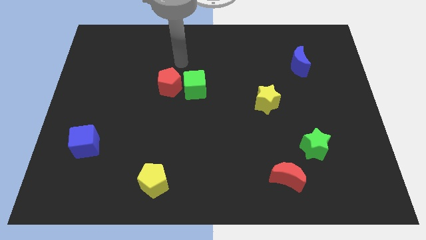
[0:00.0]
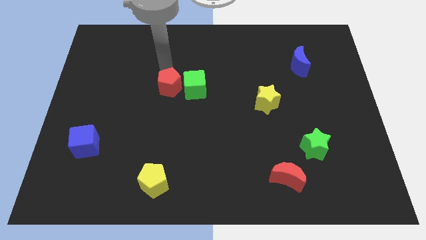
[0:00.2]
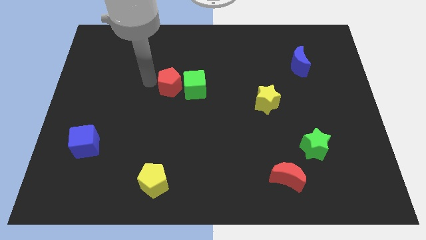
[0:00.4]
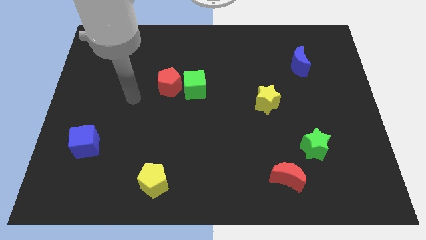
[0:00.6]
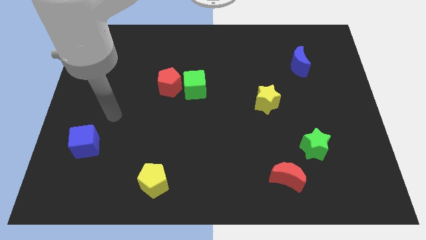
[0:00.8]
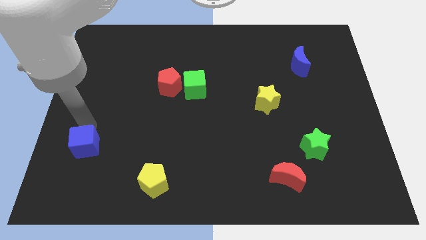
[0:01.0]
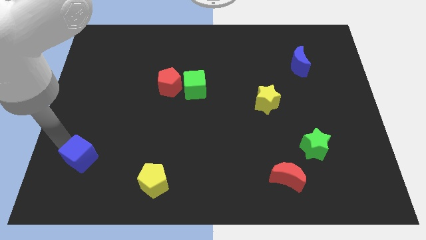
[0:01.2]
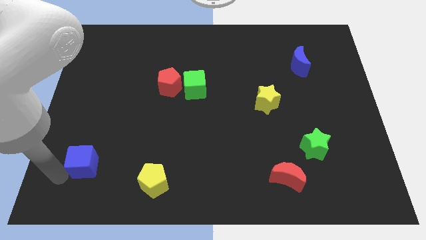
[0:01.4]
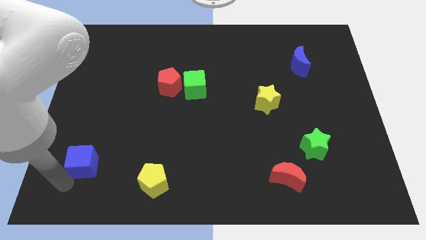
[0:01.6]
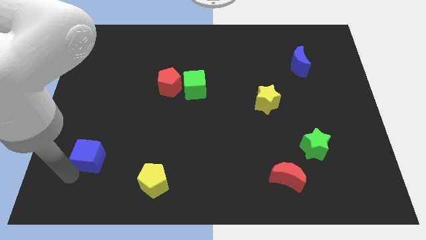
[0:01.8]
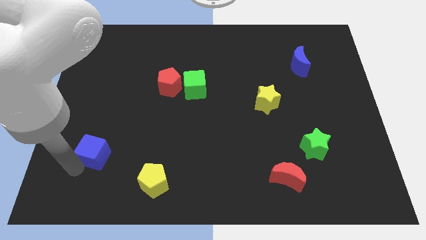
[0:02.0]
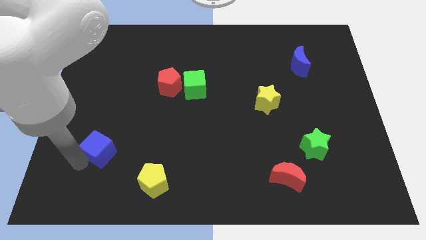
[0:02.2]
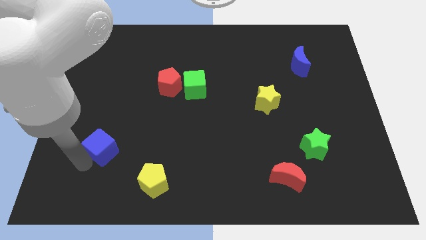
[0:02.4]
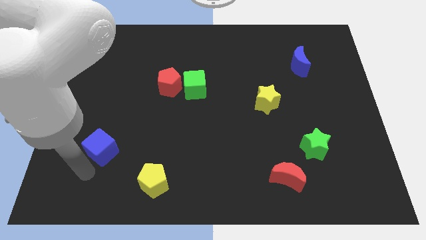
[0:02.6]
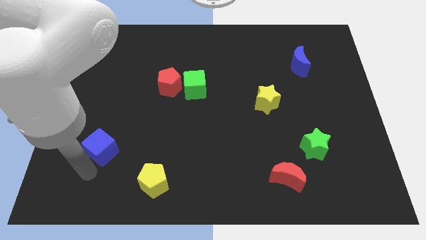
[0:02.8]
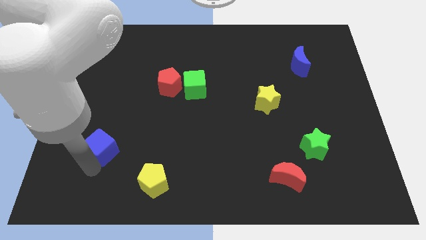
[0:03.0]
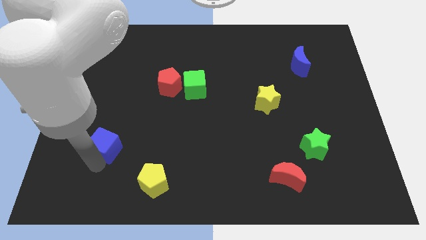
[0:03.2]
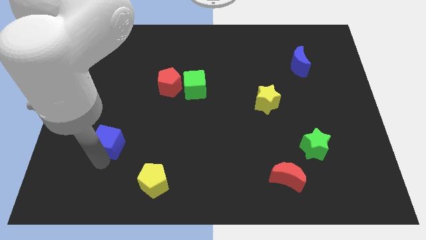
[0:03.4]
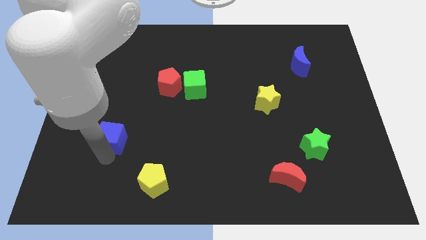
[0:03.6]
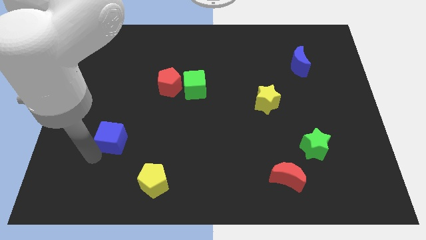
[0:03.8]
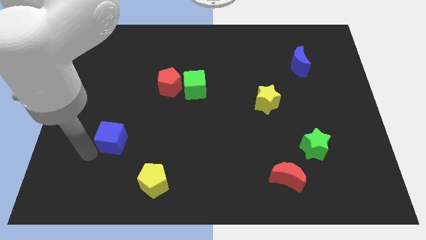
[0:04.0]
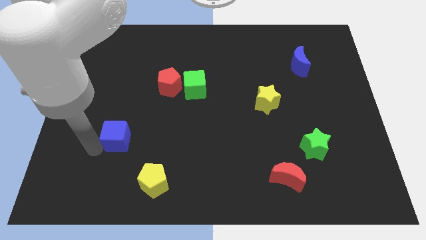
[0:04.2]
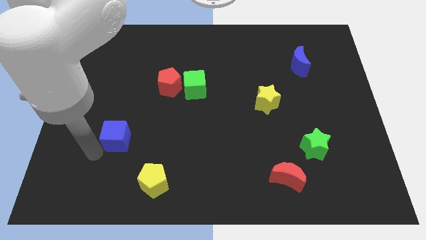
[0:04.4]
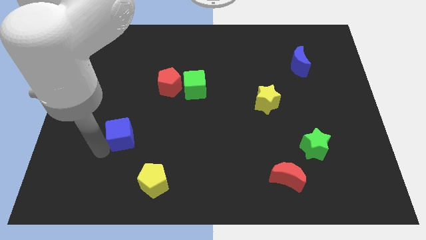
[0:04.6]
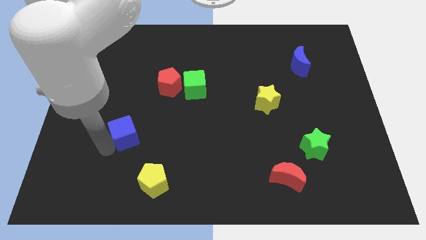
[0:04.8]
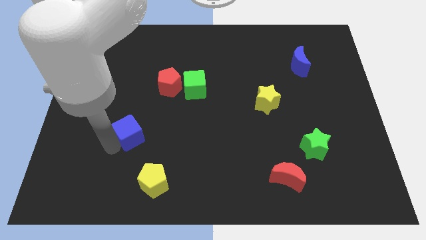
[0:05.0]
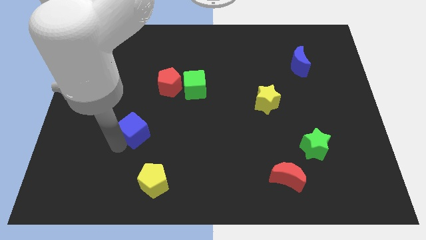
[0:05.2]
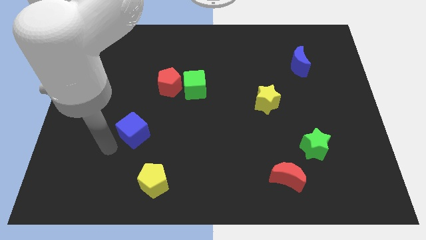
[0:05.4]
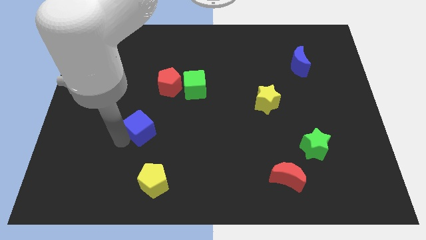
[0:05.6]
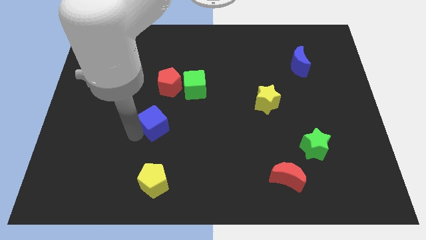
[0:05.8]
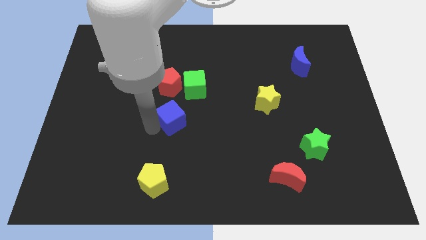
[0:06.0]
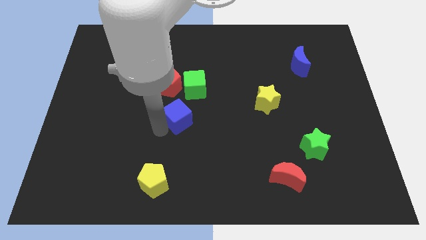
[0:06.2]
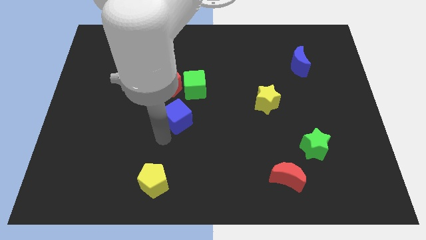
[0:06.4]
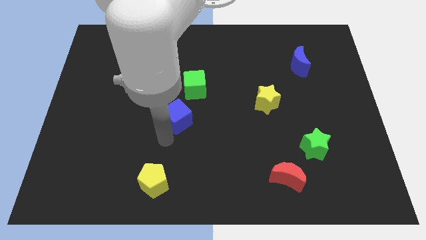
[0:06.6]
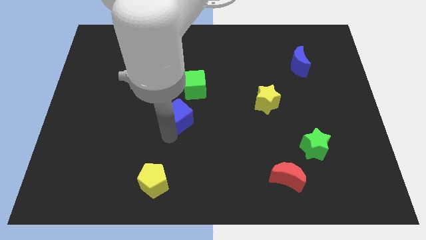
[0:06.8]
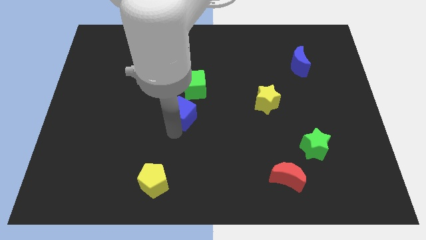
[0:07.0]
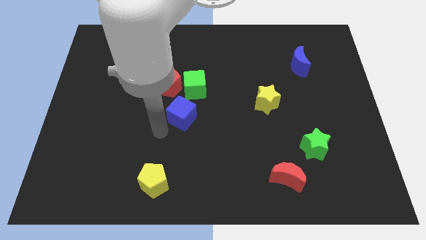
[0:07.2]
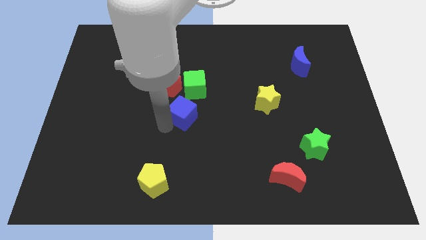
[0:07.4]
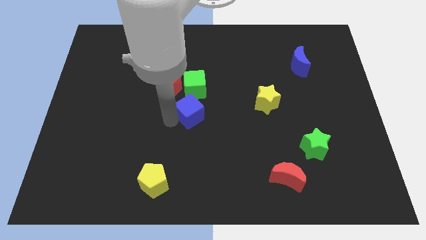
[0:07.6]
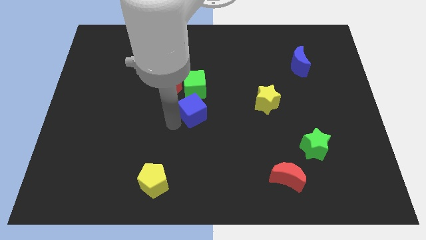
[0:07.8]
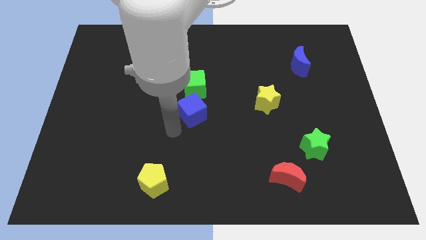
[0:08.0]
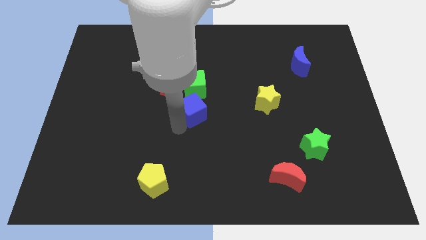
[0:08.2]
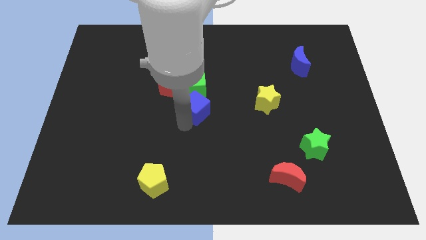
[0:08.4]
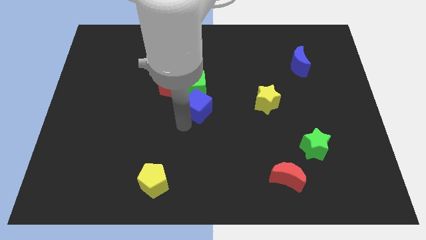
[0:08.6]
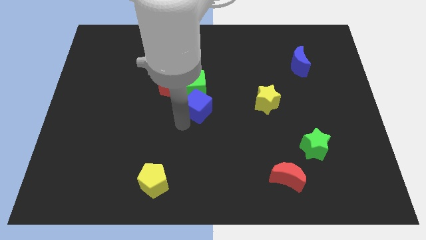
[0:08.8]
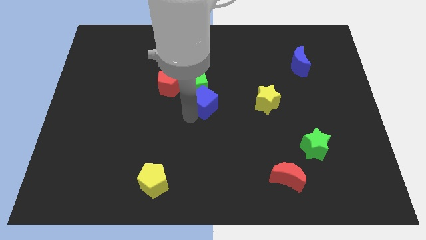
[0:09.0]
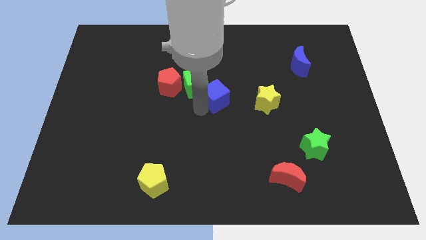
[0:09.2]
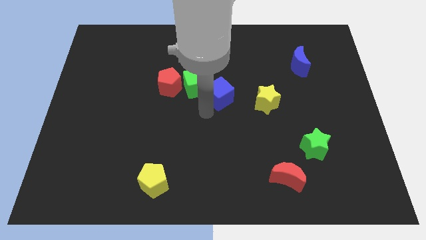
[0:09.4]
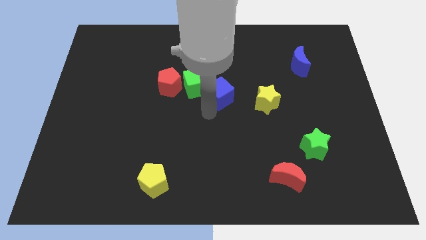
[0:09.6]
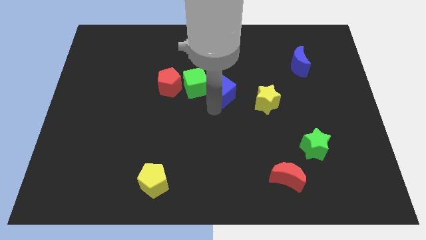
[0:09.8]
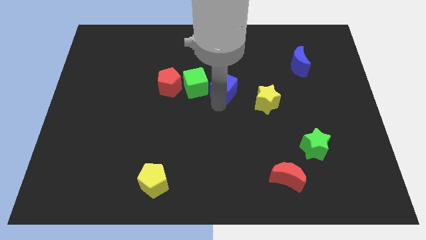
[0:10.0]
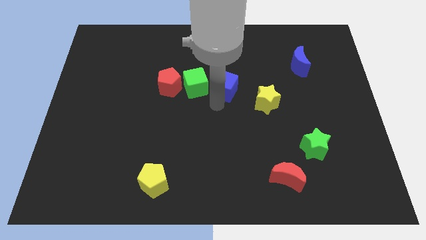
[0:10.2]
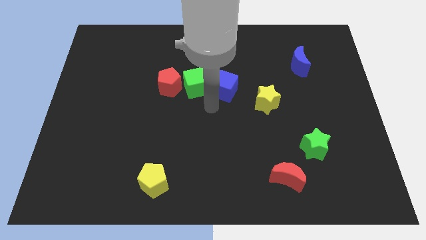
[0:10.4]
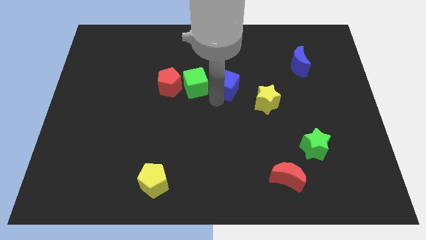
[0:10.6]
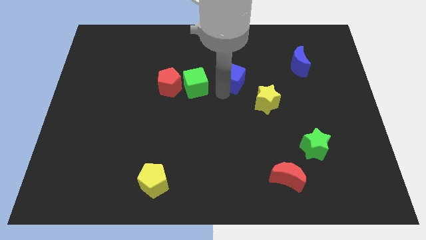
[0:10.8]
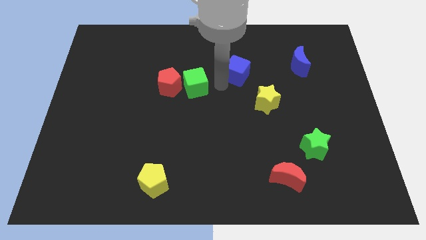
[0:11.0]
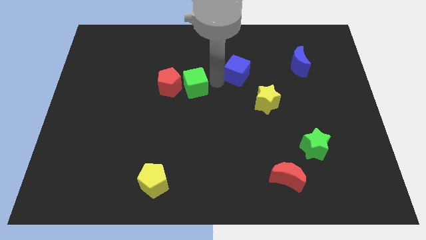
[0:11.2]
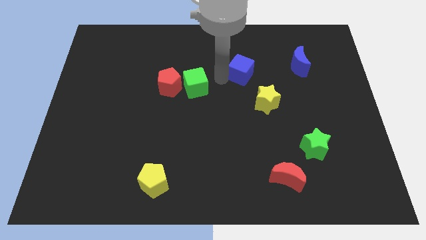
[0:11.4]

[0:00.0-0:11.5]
push the blue cube just left of the blue moon
